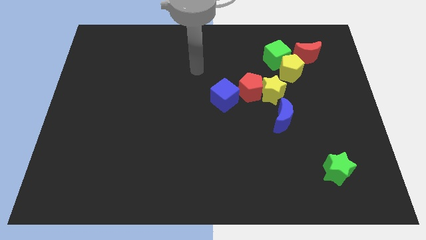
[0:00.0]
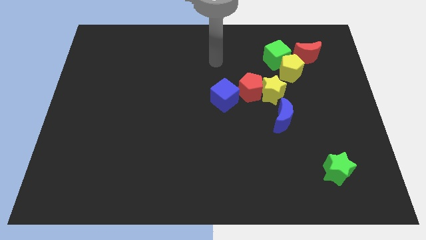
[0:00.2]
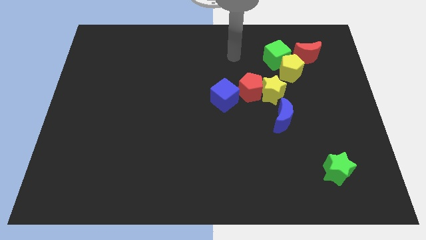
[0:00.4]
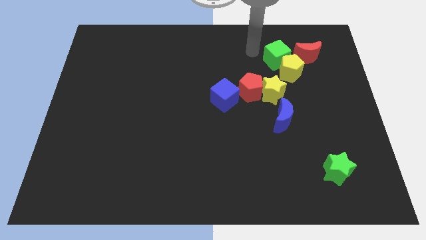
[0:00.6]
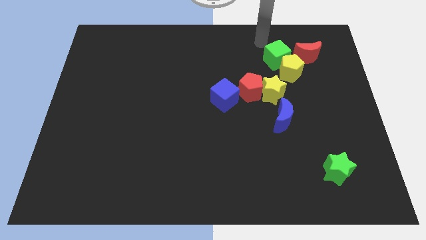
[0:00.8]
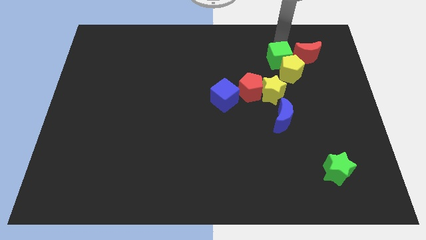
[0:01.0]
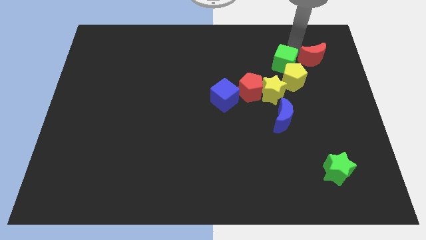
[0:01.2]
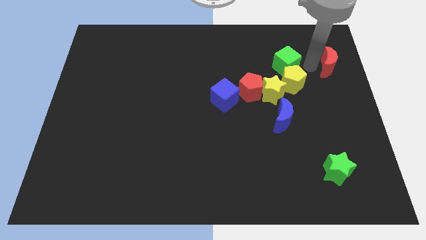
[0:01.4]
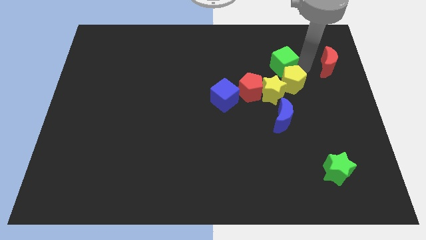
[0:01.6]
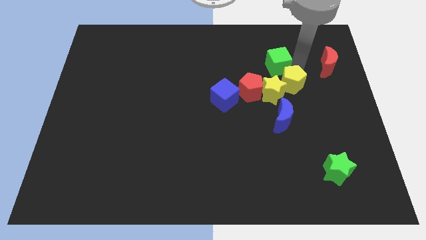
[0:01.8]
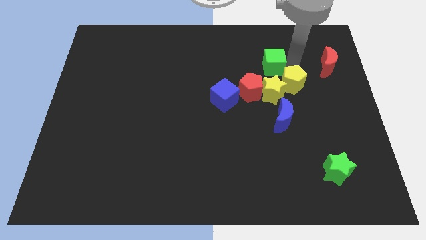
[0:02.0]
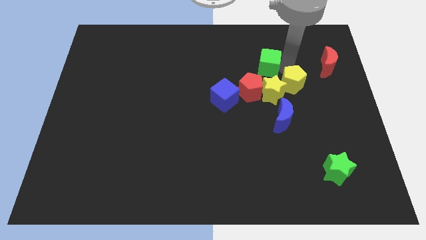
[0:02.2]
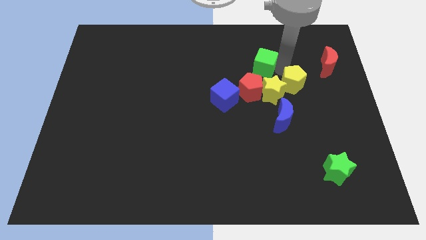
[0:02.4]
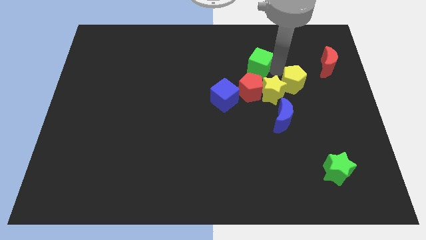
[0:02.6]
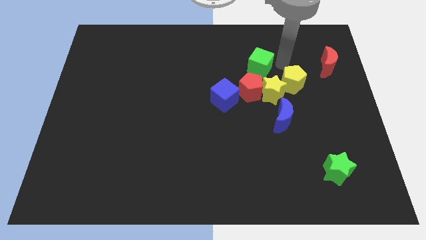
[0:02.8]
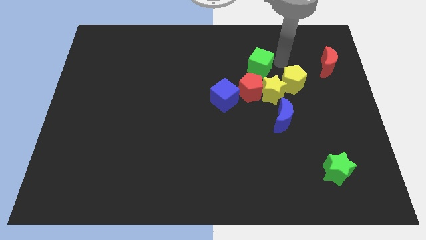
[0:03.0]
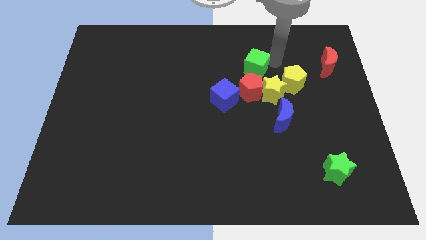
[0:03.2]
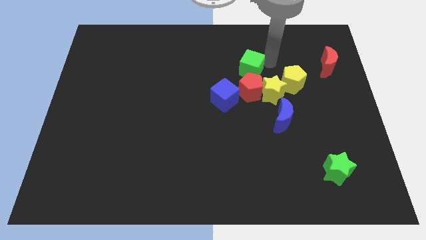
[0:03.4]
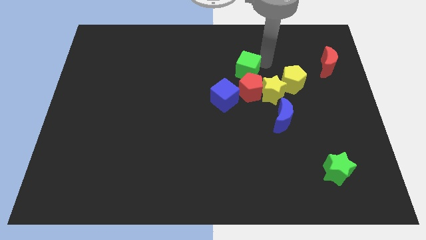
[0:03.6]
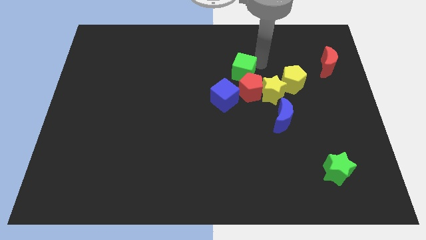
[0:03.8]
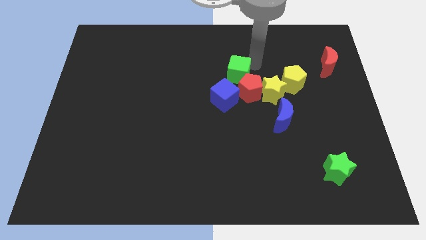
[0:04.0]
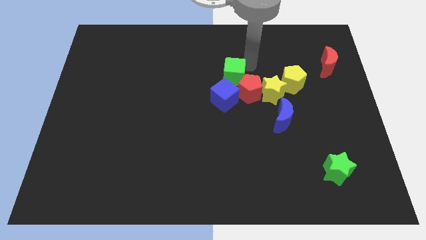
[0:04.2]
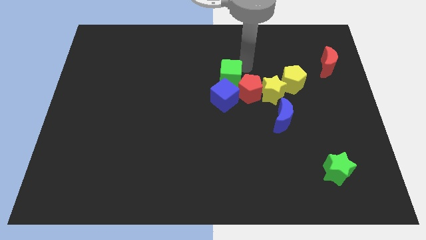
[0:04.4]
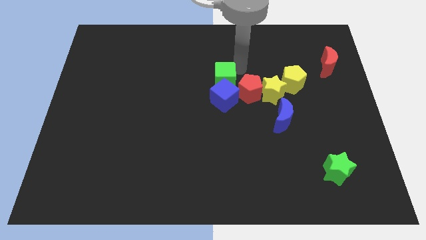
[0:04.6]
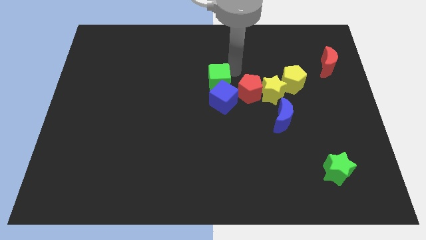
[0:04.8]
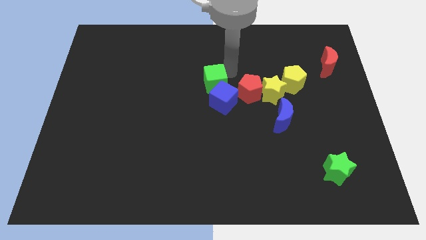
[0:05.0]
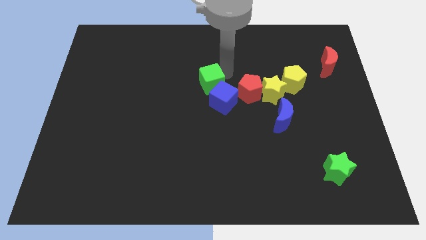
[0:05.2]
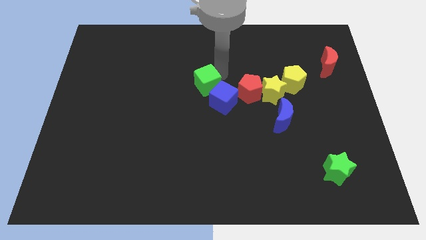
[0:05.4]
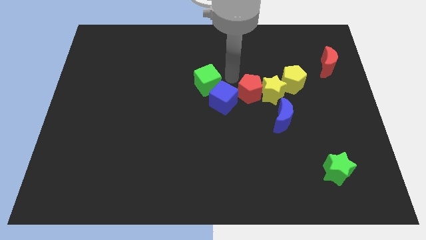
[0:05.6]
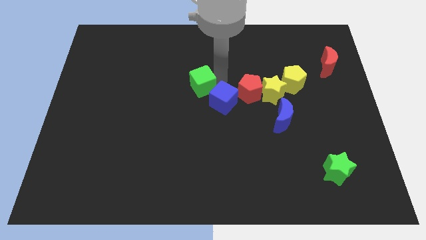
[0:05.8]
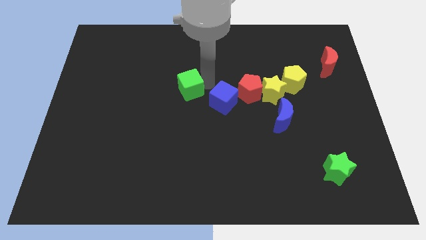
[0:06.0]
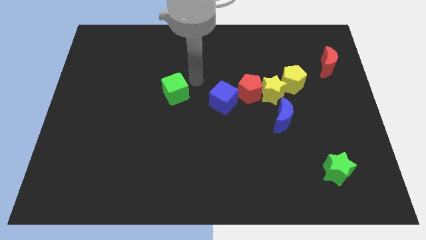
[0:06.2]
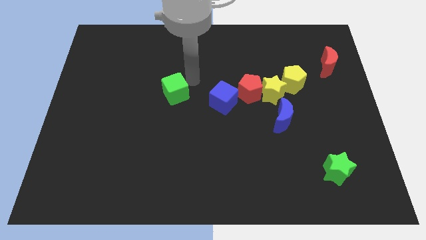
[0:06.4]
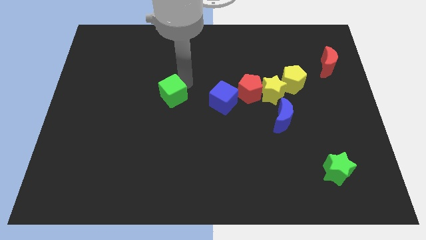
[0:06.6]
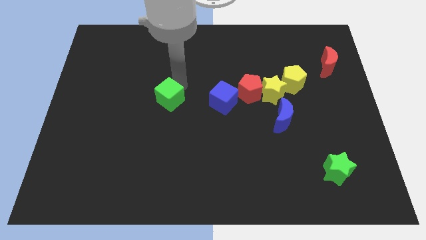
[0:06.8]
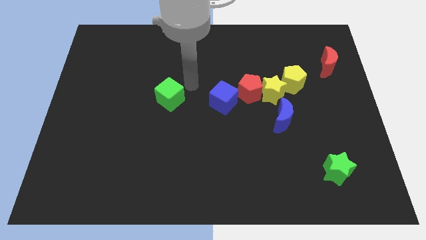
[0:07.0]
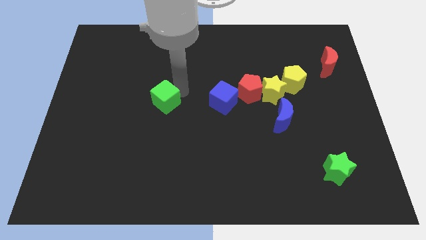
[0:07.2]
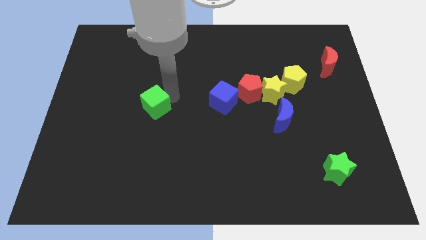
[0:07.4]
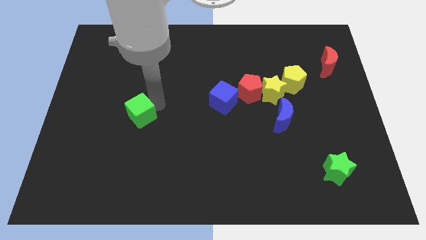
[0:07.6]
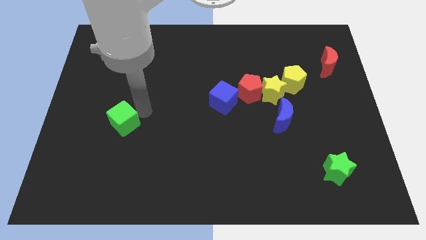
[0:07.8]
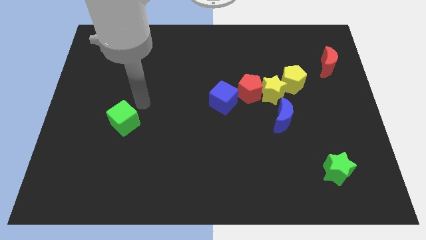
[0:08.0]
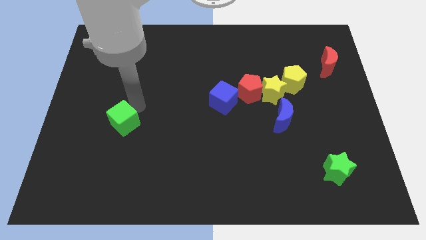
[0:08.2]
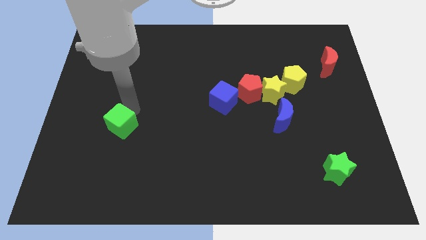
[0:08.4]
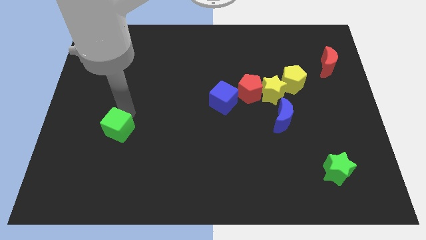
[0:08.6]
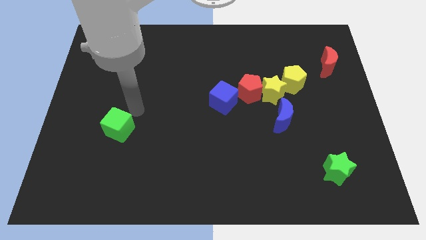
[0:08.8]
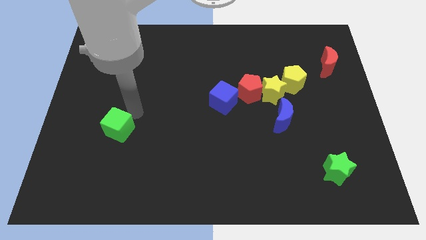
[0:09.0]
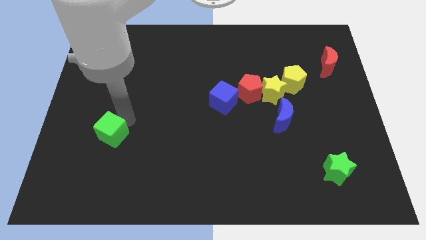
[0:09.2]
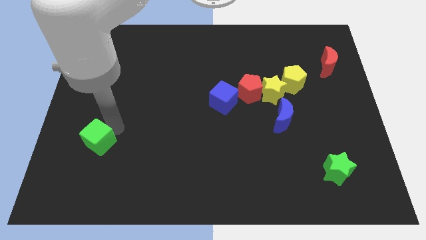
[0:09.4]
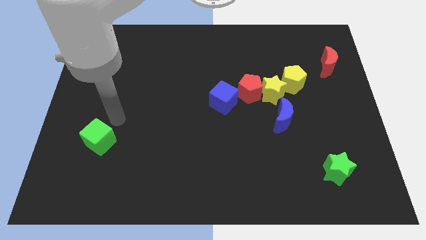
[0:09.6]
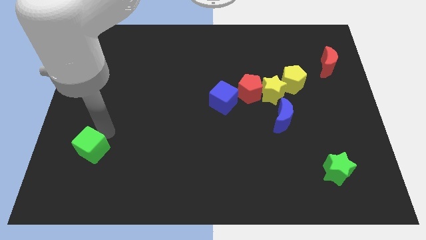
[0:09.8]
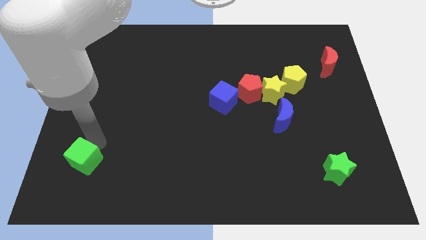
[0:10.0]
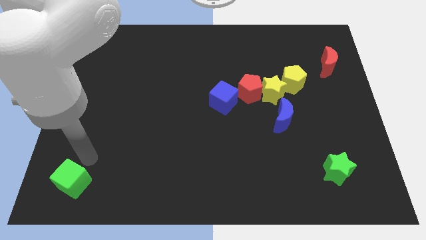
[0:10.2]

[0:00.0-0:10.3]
slide the green cube to the lower left corner

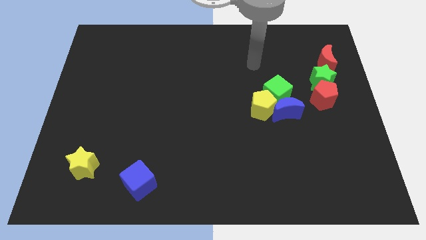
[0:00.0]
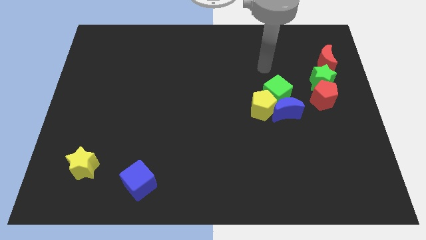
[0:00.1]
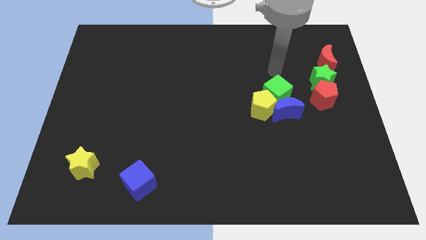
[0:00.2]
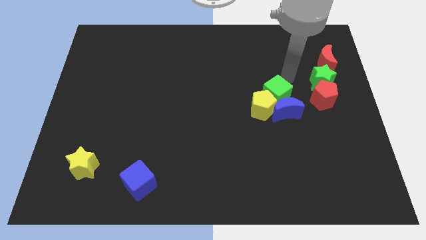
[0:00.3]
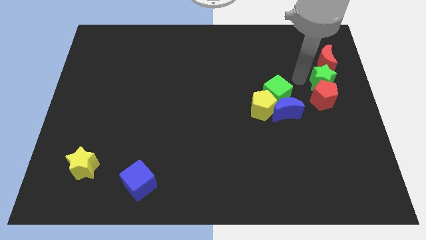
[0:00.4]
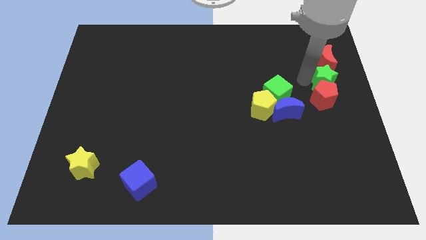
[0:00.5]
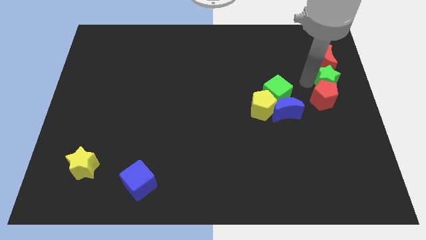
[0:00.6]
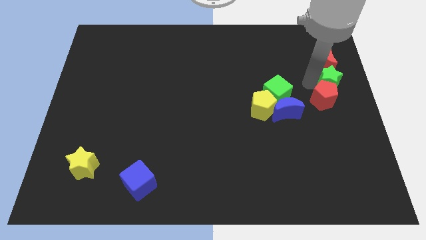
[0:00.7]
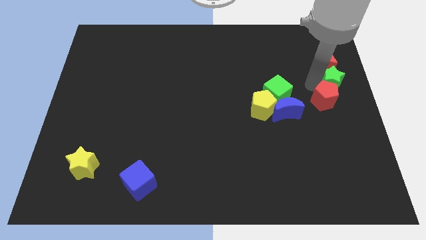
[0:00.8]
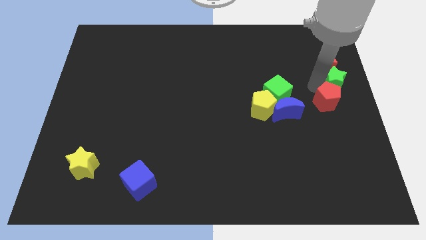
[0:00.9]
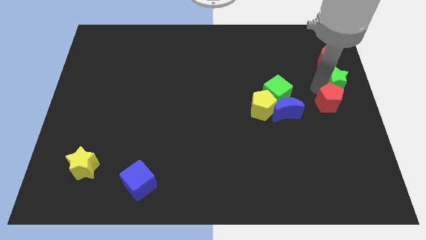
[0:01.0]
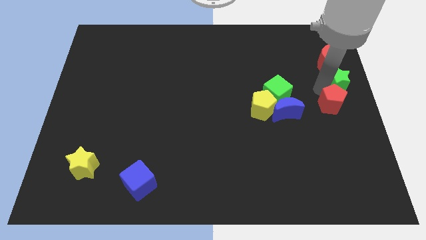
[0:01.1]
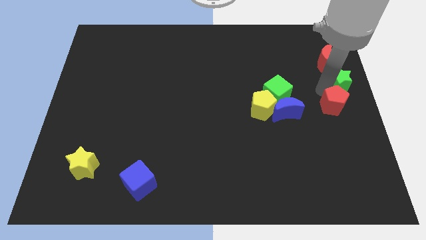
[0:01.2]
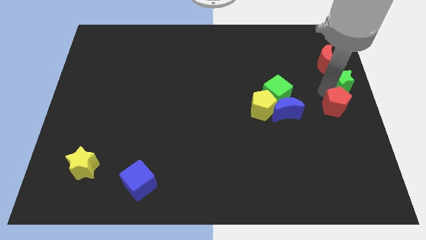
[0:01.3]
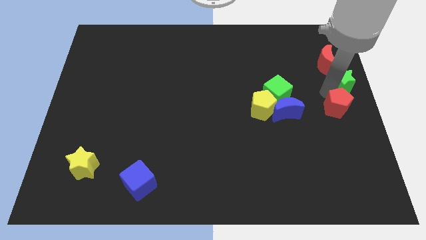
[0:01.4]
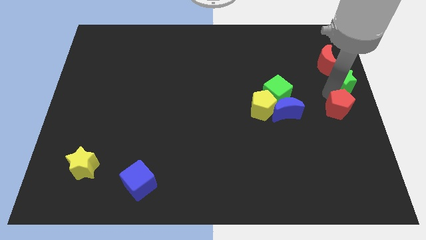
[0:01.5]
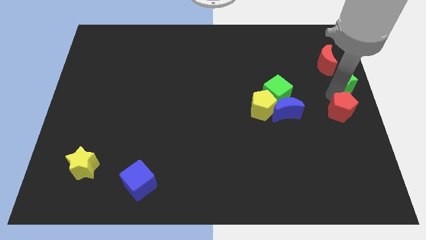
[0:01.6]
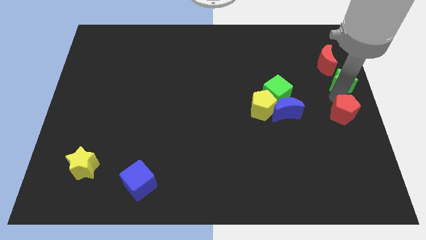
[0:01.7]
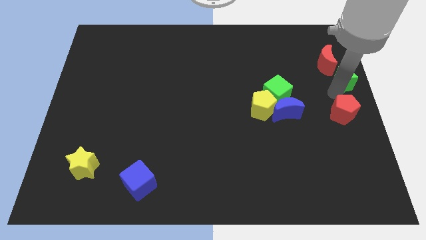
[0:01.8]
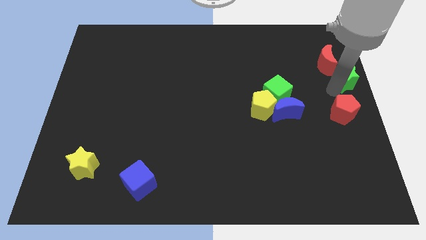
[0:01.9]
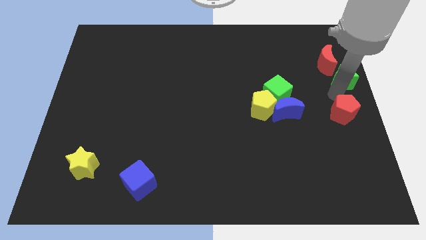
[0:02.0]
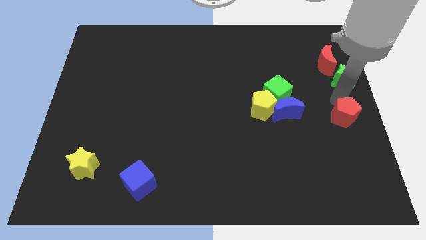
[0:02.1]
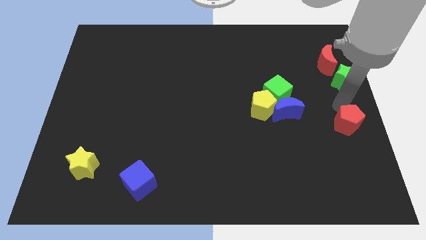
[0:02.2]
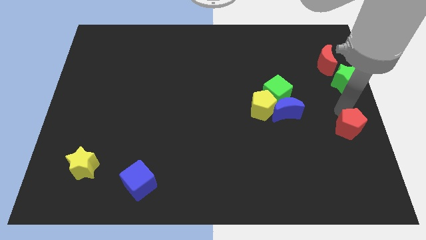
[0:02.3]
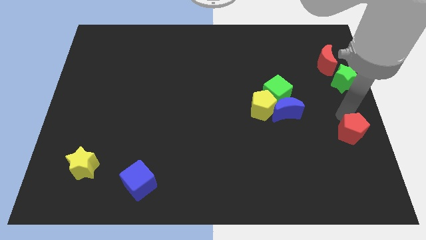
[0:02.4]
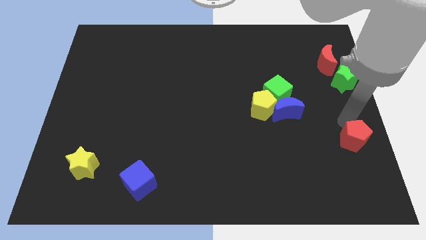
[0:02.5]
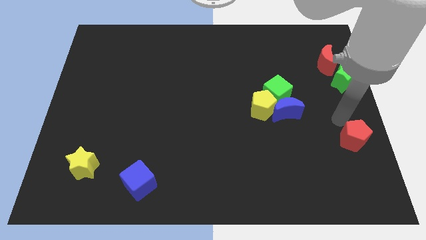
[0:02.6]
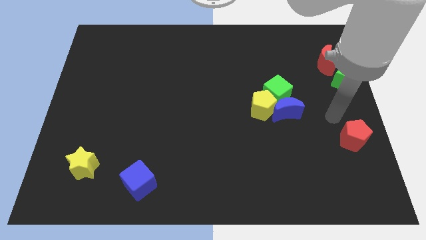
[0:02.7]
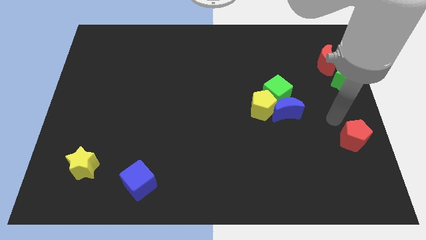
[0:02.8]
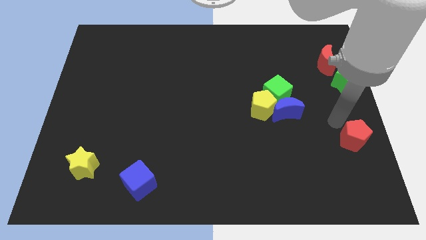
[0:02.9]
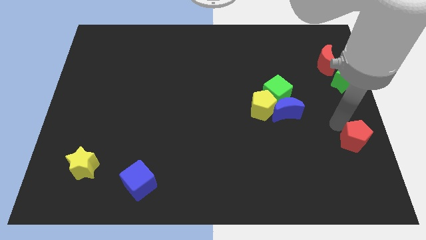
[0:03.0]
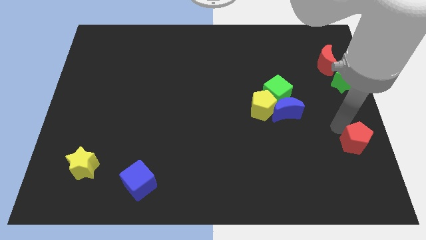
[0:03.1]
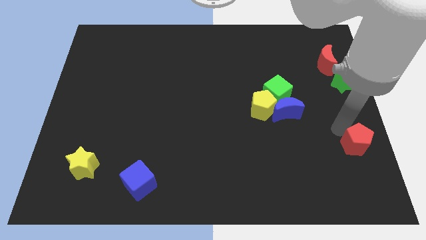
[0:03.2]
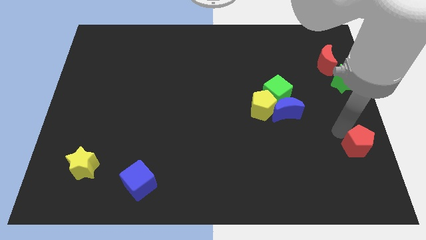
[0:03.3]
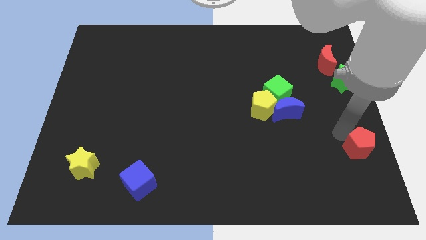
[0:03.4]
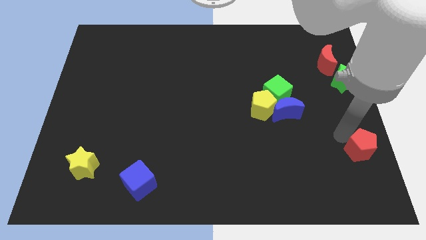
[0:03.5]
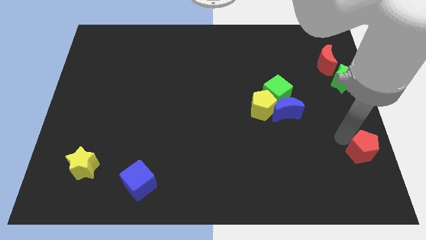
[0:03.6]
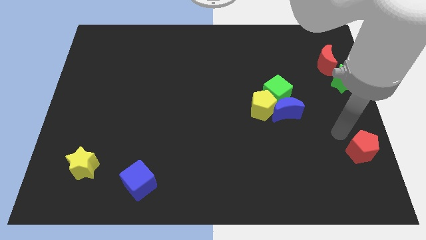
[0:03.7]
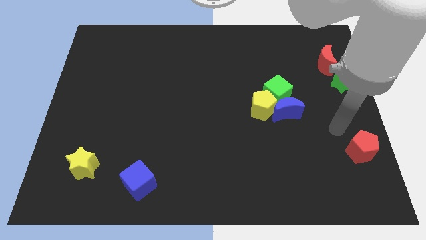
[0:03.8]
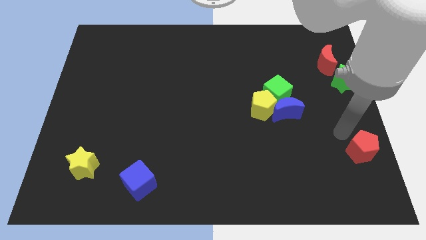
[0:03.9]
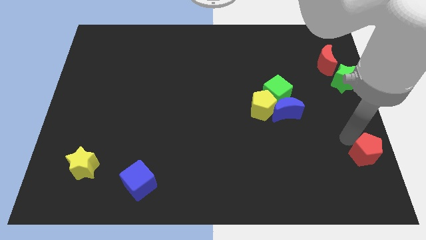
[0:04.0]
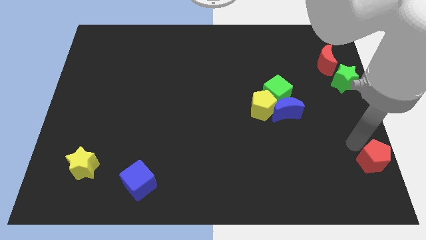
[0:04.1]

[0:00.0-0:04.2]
put the red pentagon to the bottom right of the board
